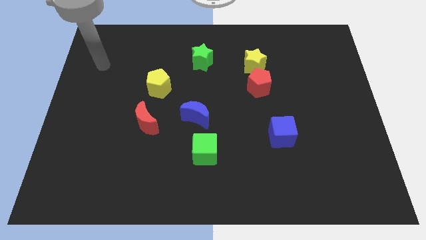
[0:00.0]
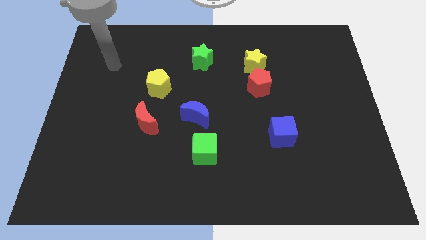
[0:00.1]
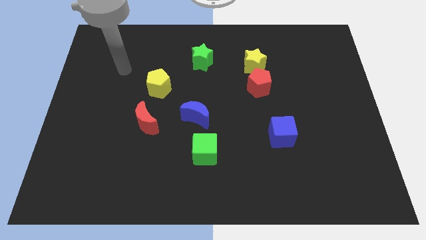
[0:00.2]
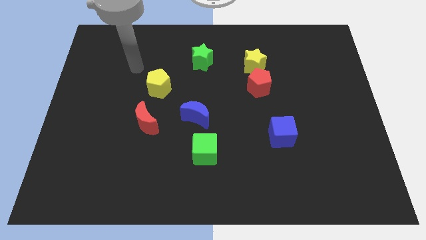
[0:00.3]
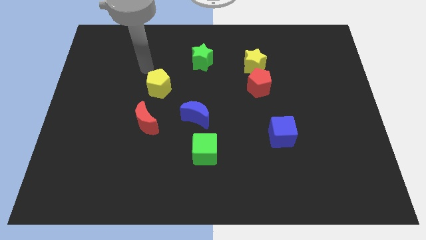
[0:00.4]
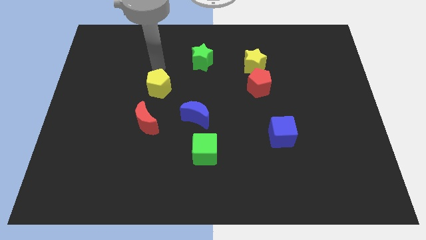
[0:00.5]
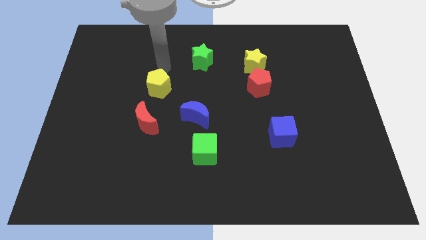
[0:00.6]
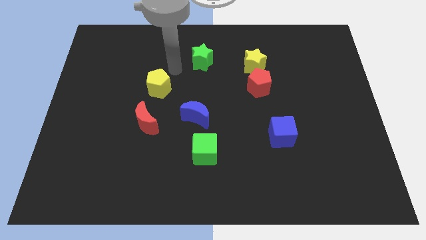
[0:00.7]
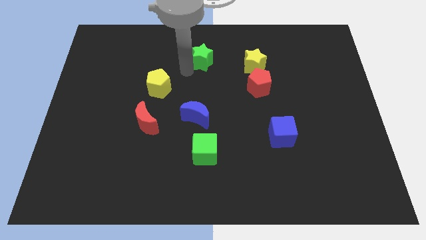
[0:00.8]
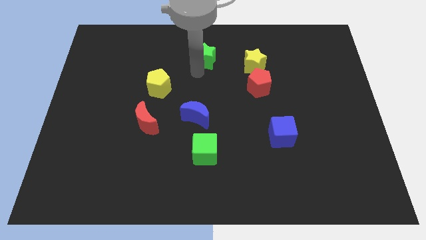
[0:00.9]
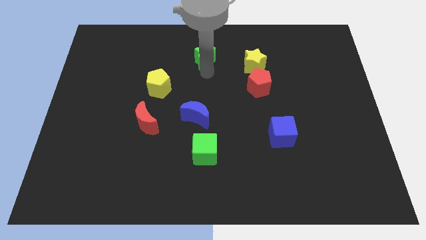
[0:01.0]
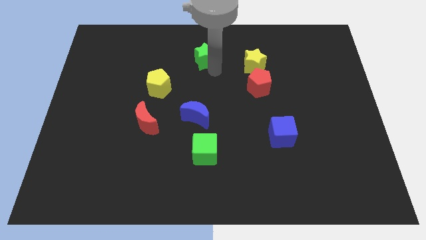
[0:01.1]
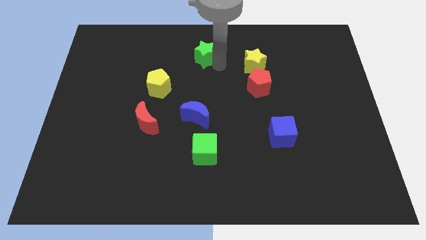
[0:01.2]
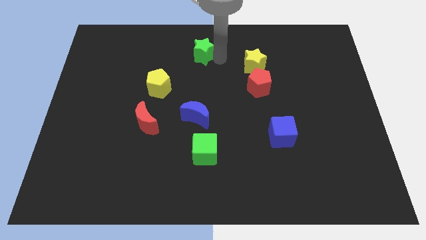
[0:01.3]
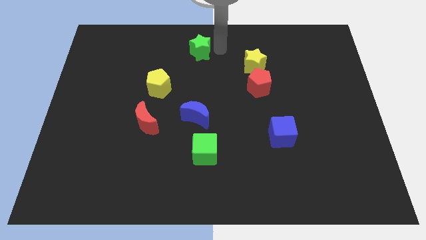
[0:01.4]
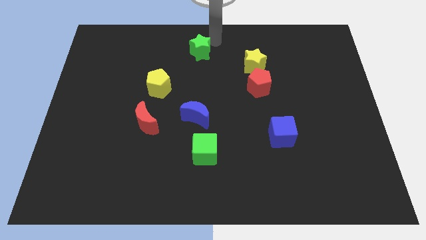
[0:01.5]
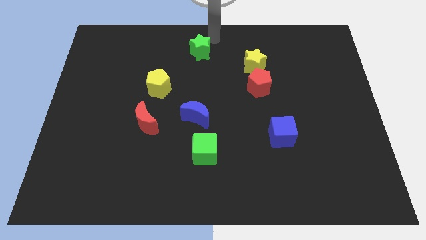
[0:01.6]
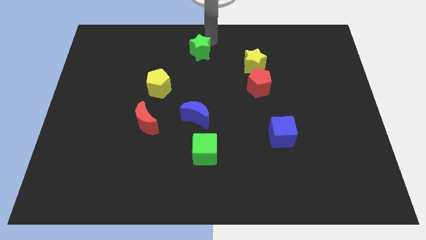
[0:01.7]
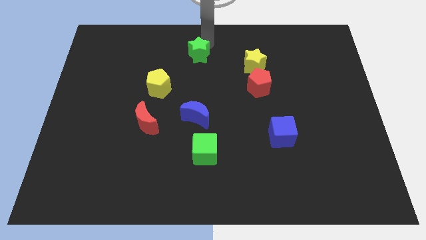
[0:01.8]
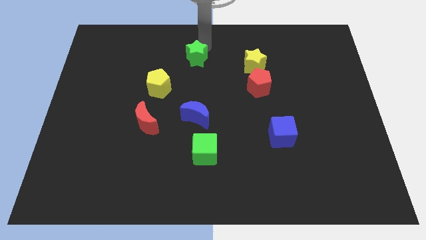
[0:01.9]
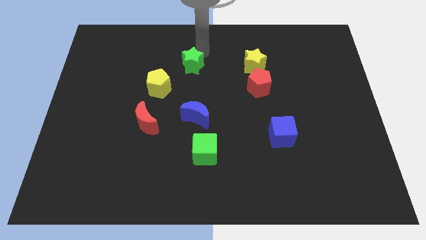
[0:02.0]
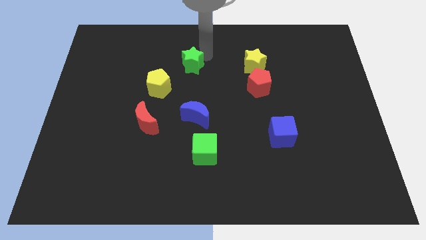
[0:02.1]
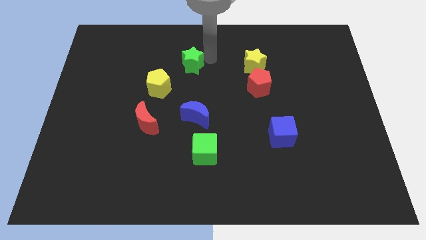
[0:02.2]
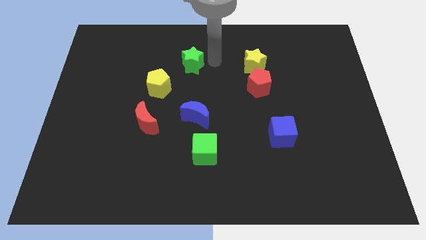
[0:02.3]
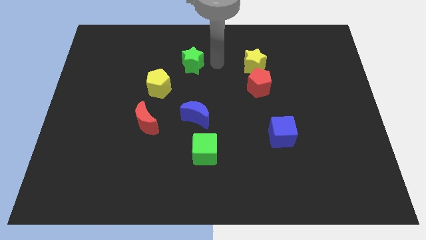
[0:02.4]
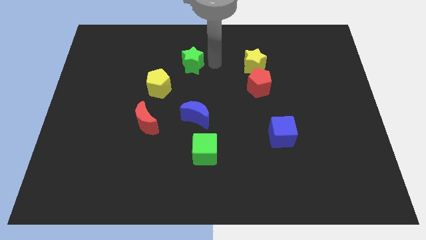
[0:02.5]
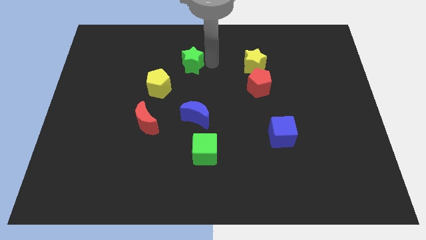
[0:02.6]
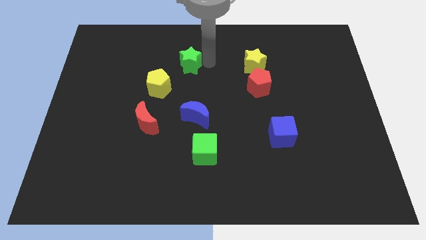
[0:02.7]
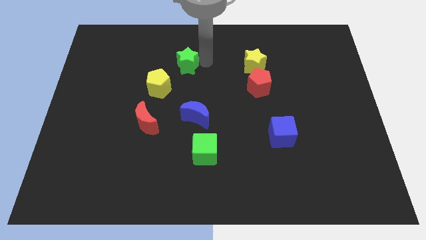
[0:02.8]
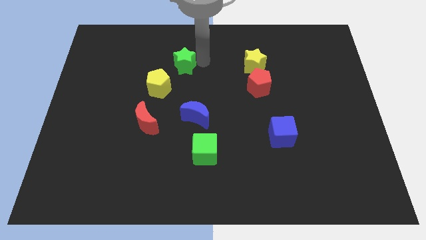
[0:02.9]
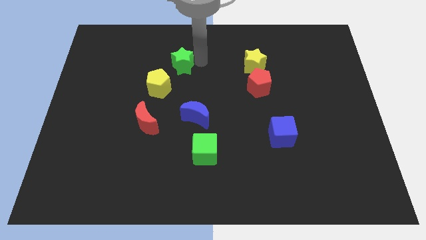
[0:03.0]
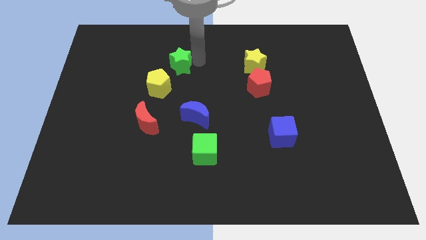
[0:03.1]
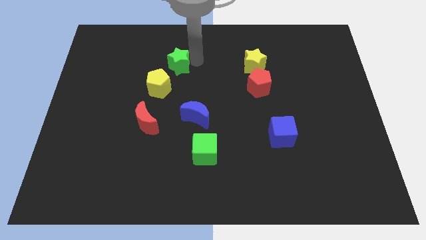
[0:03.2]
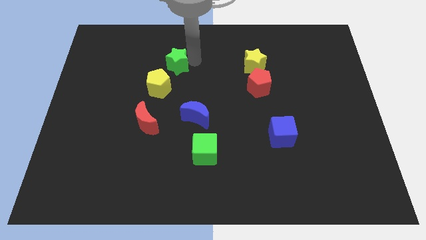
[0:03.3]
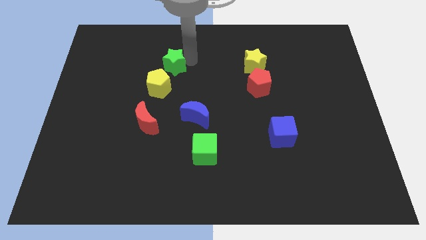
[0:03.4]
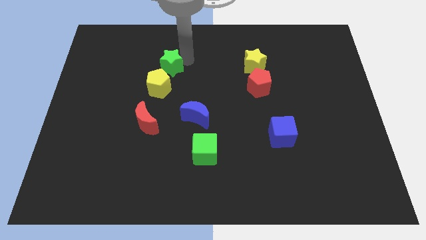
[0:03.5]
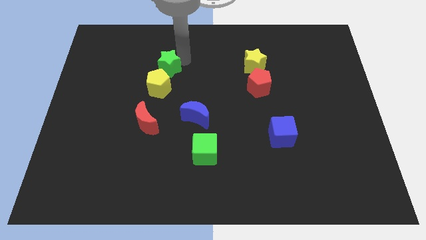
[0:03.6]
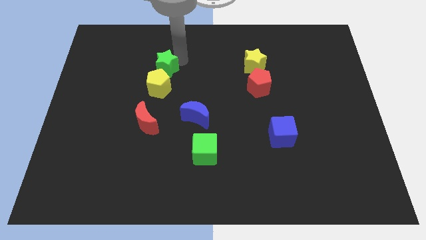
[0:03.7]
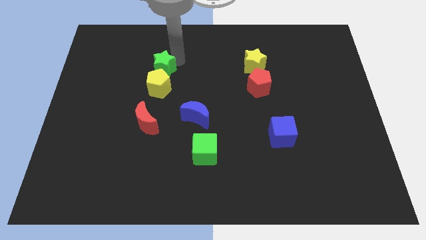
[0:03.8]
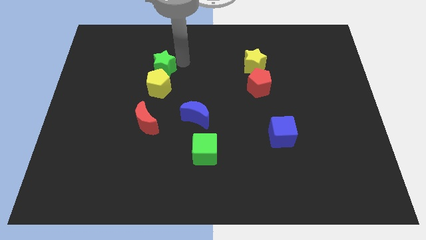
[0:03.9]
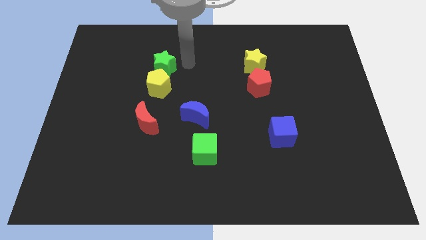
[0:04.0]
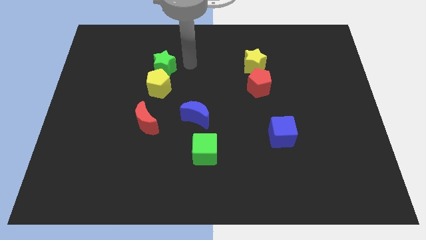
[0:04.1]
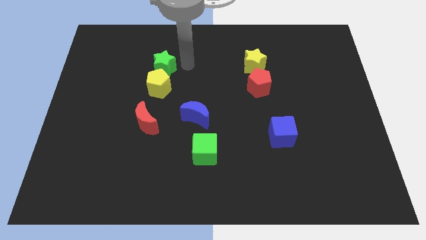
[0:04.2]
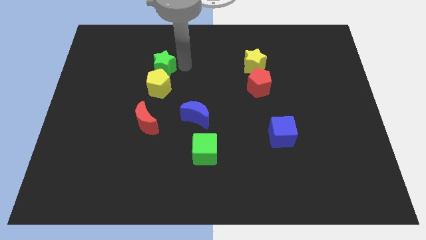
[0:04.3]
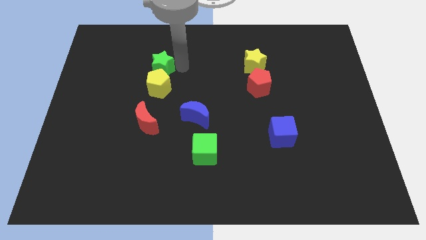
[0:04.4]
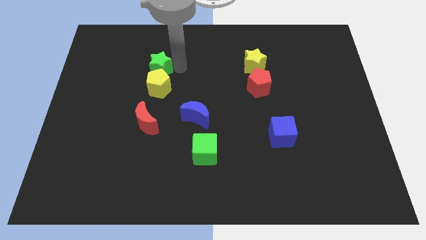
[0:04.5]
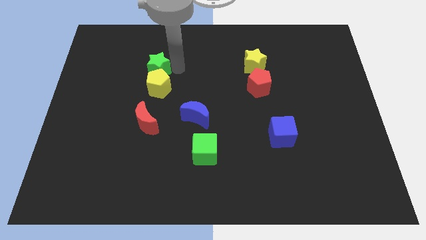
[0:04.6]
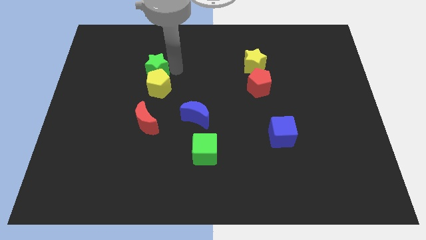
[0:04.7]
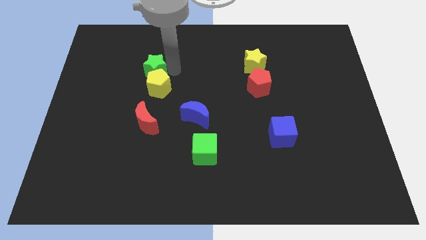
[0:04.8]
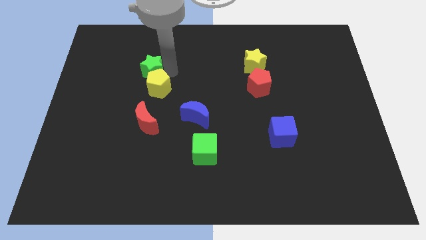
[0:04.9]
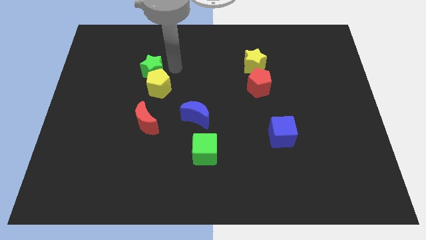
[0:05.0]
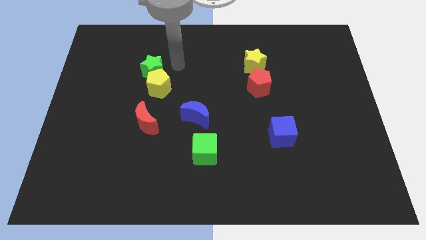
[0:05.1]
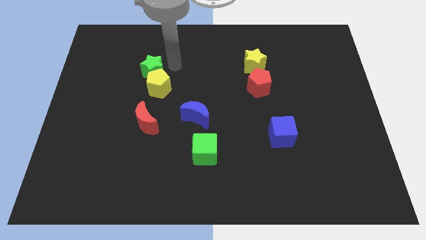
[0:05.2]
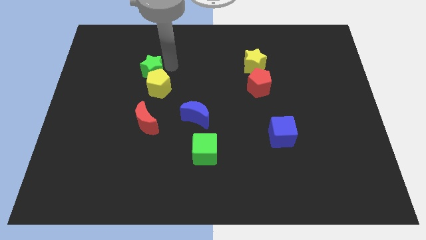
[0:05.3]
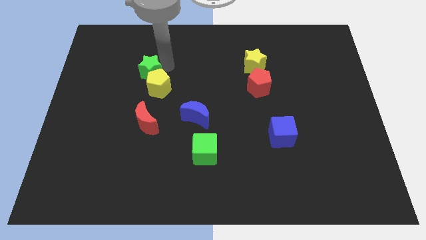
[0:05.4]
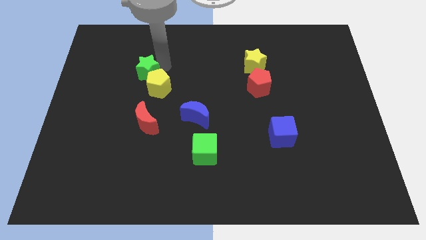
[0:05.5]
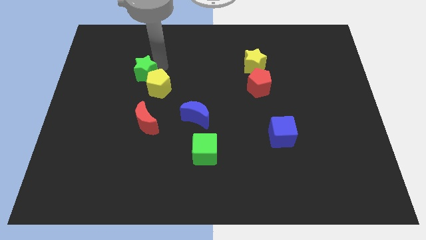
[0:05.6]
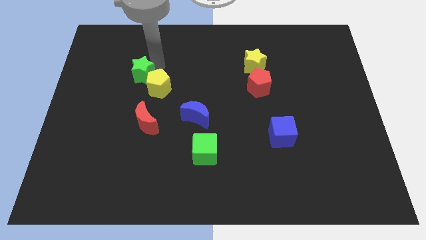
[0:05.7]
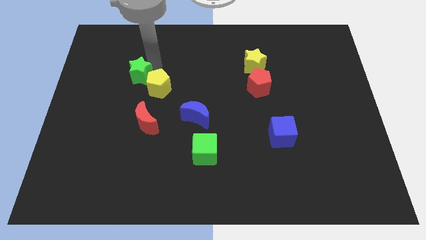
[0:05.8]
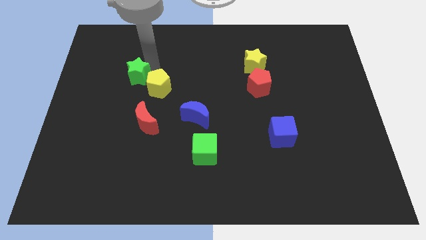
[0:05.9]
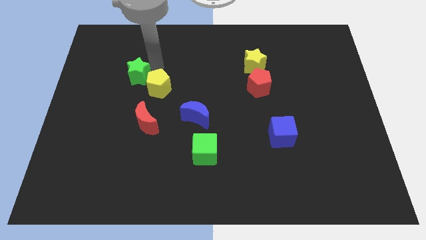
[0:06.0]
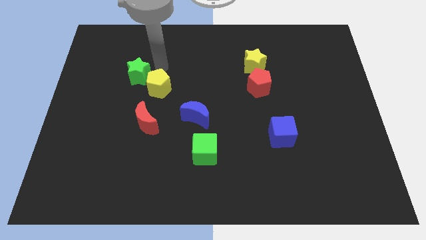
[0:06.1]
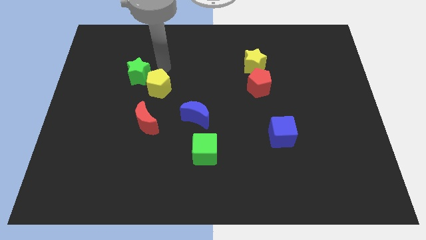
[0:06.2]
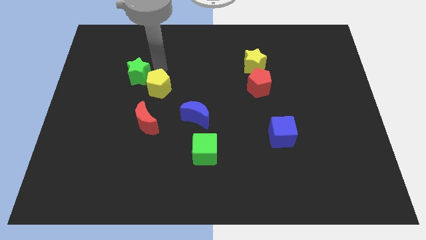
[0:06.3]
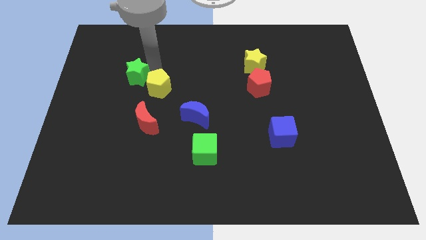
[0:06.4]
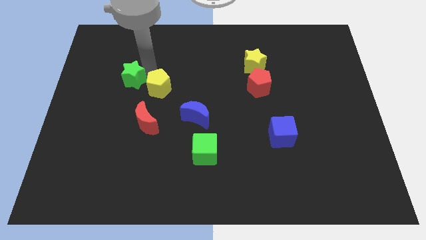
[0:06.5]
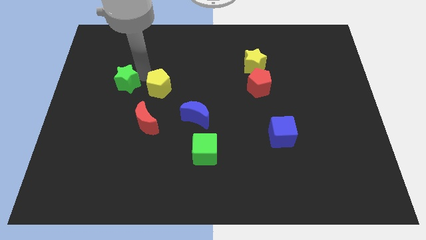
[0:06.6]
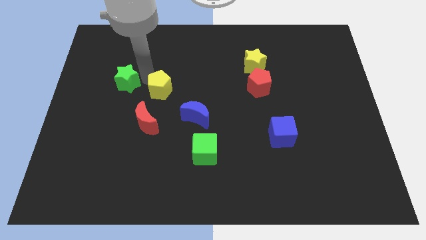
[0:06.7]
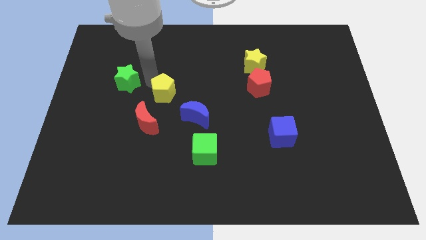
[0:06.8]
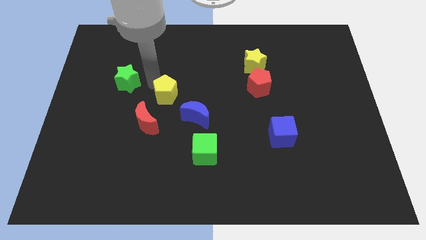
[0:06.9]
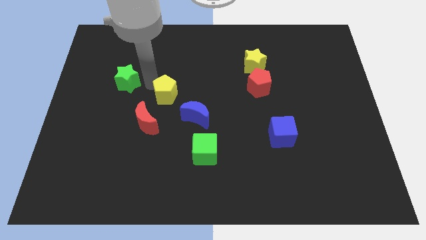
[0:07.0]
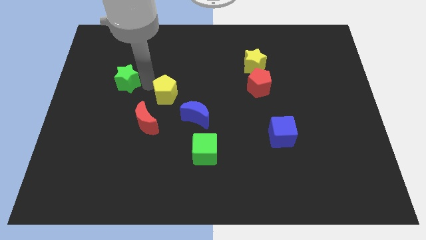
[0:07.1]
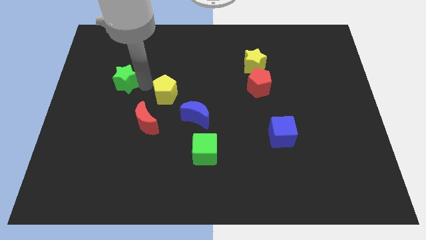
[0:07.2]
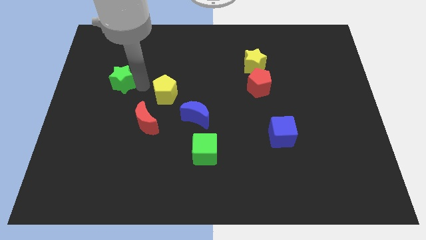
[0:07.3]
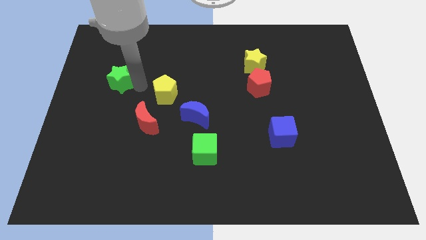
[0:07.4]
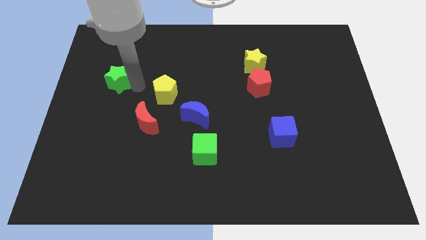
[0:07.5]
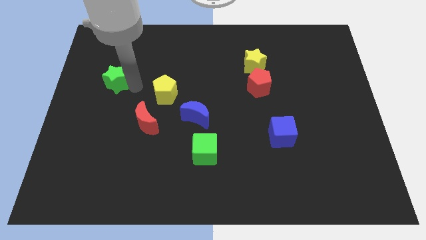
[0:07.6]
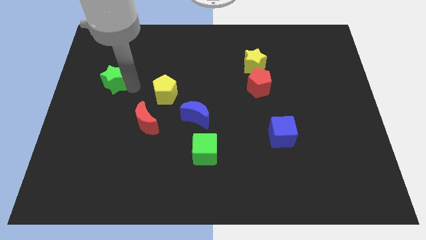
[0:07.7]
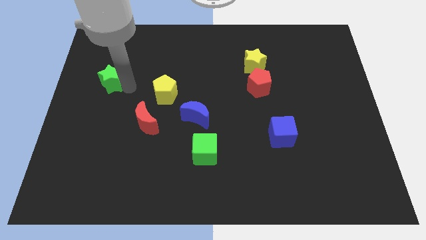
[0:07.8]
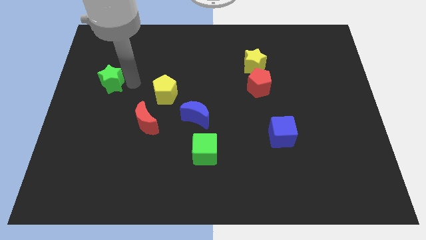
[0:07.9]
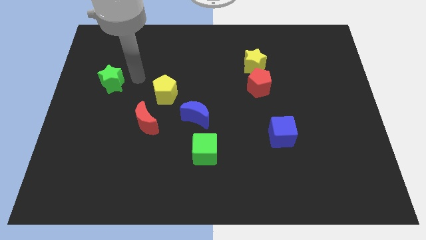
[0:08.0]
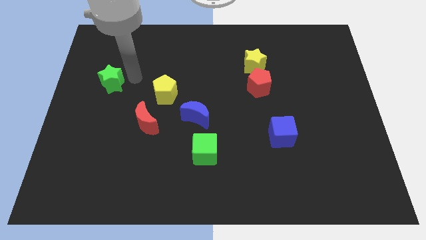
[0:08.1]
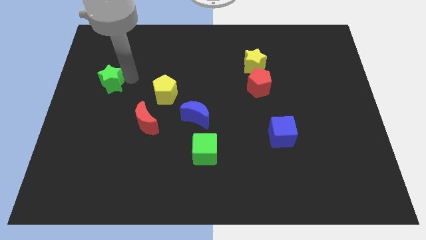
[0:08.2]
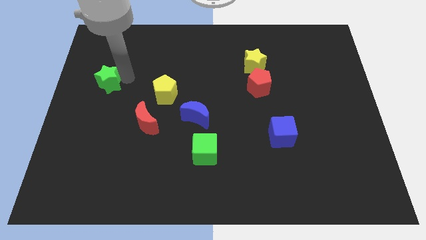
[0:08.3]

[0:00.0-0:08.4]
put the green star to the center left
